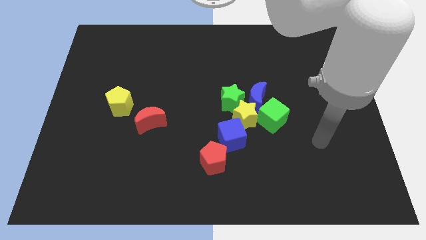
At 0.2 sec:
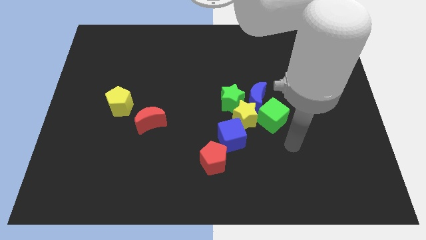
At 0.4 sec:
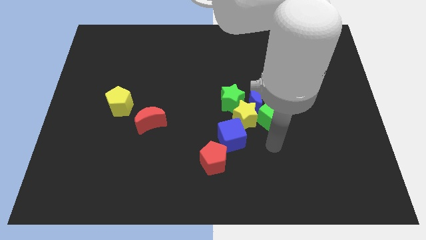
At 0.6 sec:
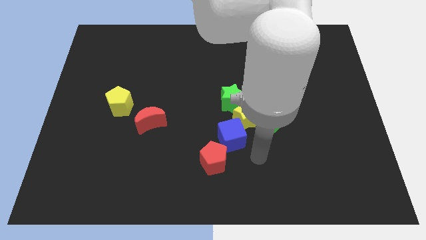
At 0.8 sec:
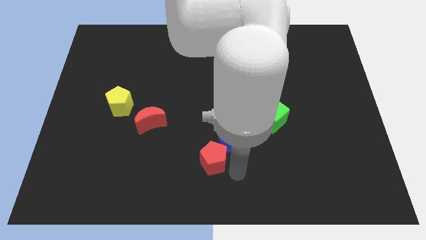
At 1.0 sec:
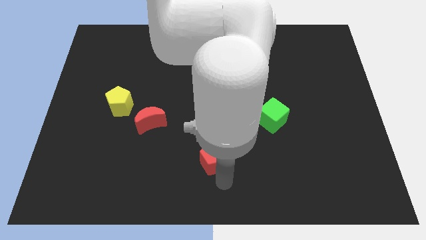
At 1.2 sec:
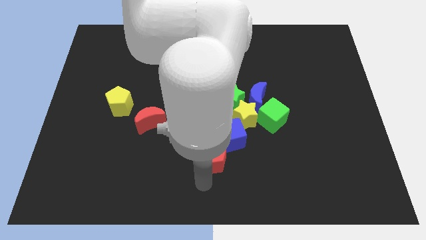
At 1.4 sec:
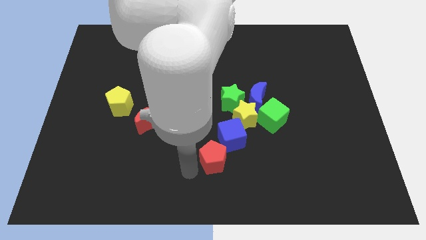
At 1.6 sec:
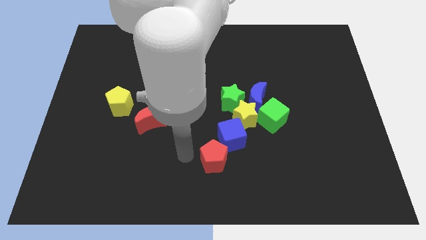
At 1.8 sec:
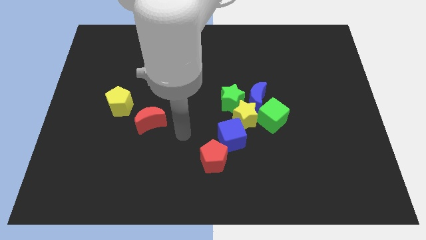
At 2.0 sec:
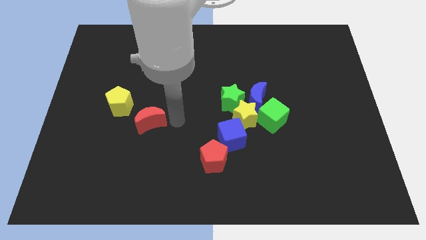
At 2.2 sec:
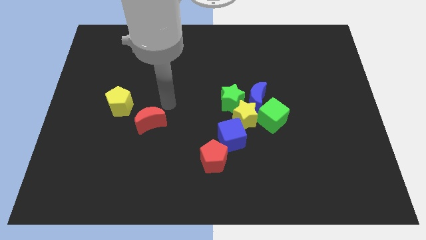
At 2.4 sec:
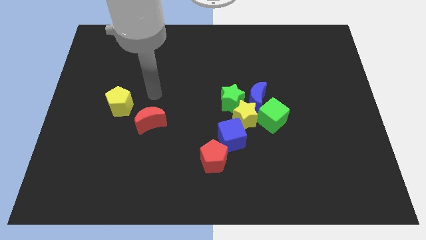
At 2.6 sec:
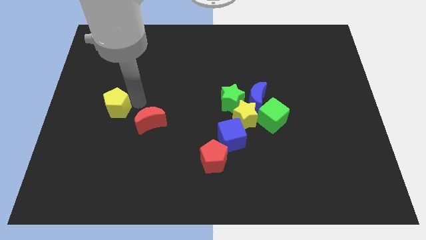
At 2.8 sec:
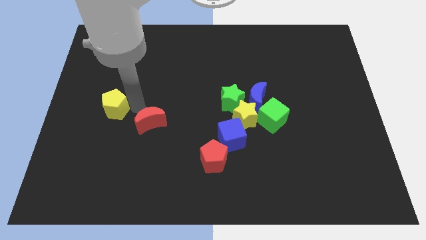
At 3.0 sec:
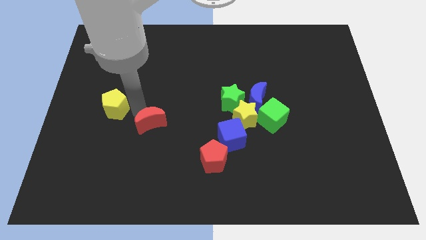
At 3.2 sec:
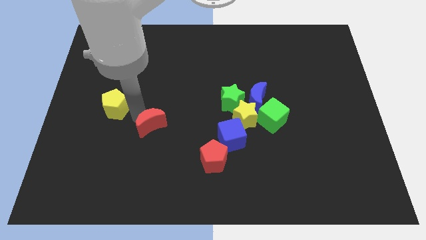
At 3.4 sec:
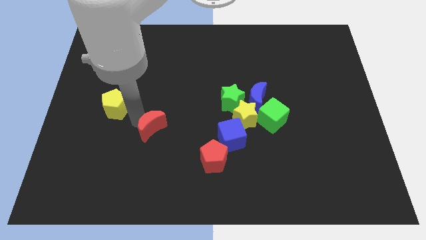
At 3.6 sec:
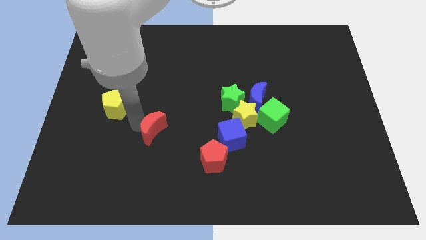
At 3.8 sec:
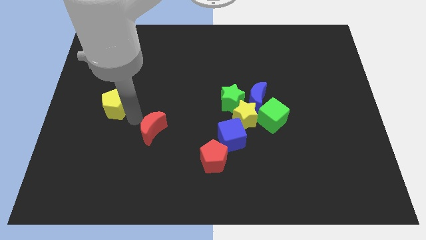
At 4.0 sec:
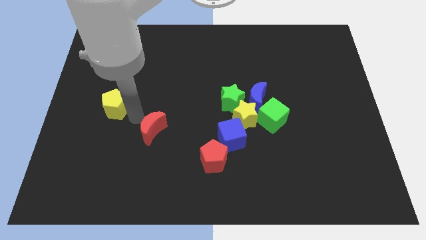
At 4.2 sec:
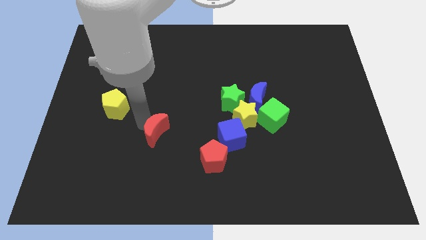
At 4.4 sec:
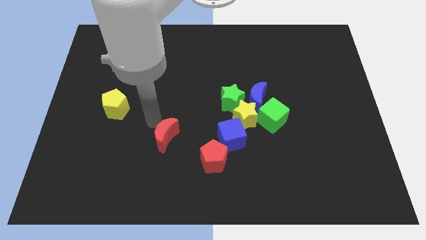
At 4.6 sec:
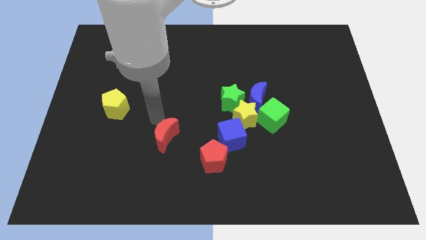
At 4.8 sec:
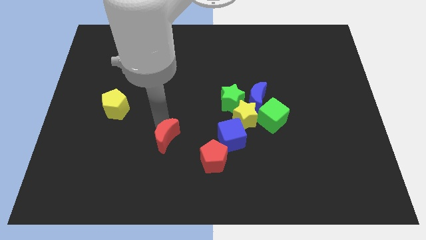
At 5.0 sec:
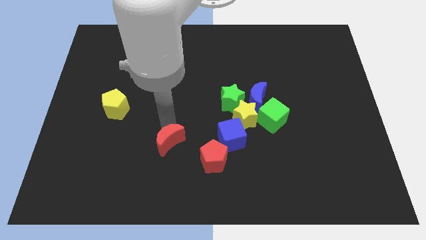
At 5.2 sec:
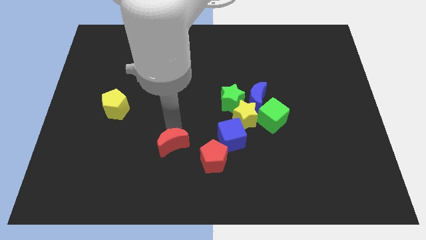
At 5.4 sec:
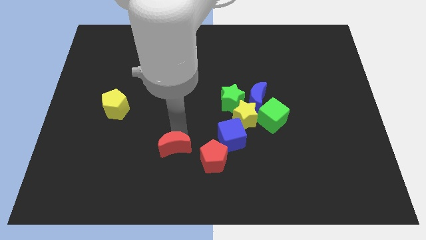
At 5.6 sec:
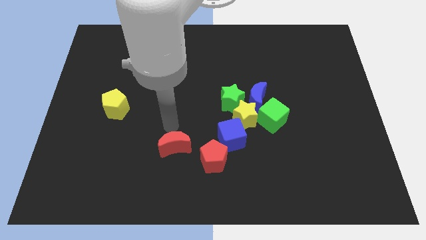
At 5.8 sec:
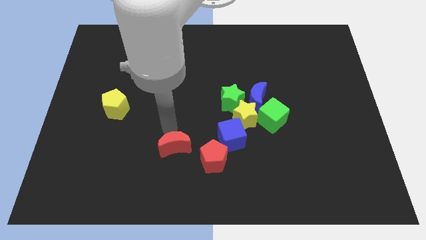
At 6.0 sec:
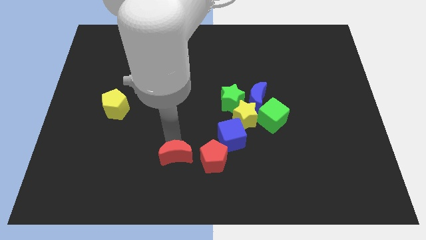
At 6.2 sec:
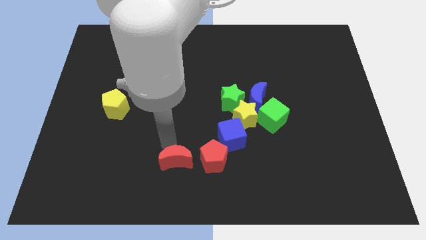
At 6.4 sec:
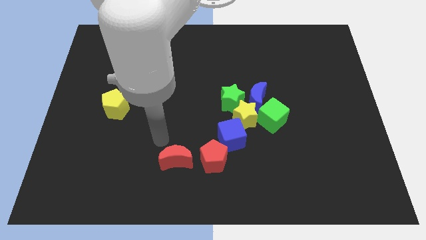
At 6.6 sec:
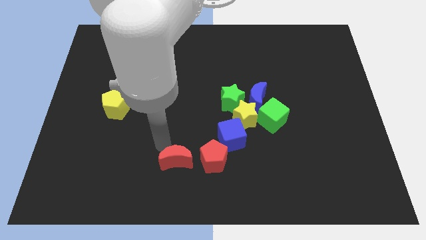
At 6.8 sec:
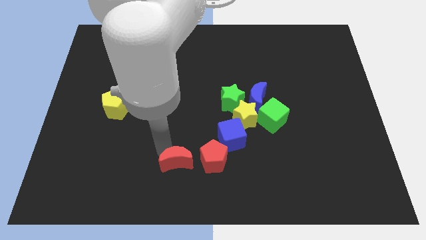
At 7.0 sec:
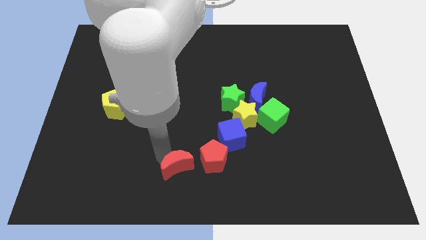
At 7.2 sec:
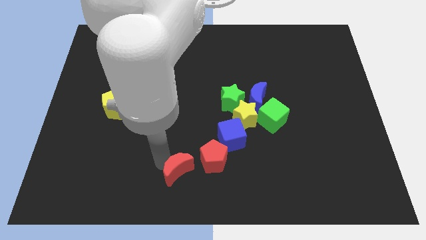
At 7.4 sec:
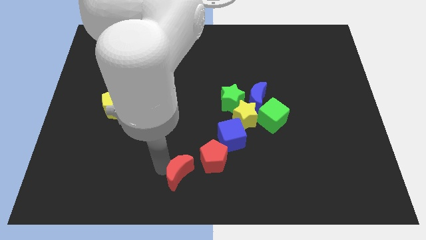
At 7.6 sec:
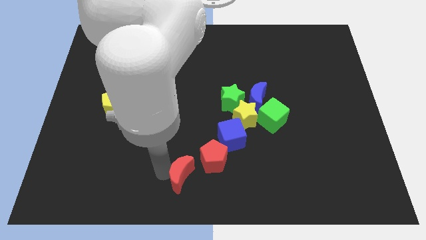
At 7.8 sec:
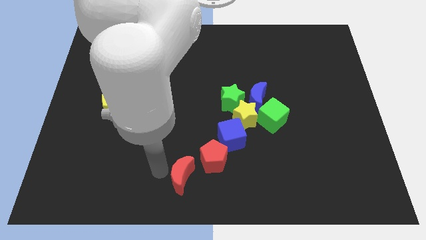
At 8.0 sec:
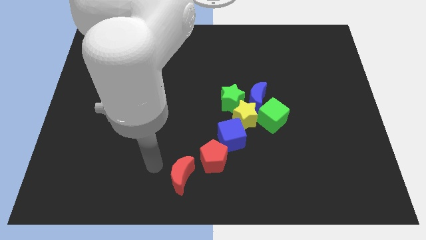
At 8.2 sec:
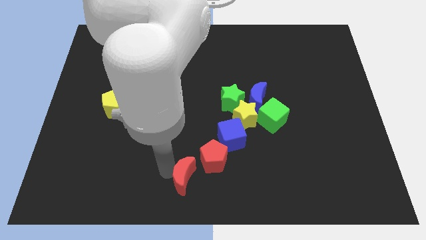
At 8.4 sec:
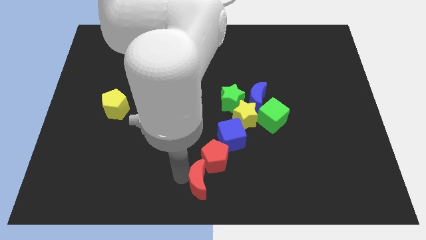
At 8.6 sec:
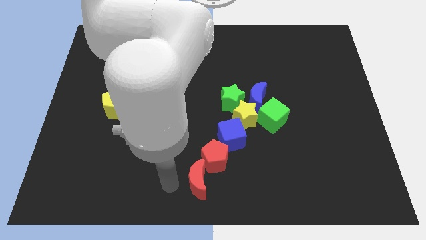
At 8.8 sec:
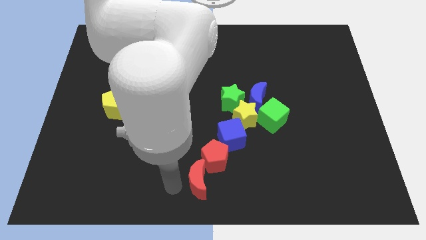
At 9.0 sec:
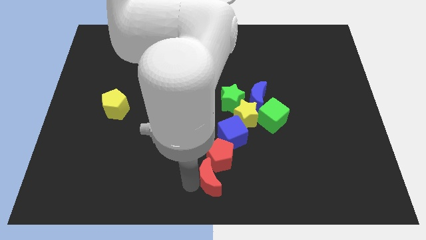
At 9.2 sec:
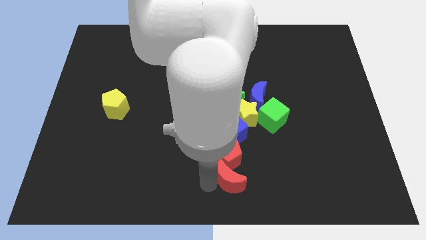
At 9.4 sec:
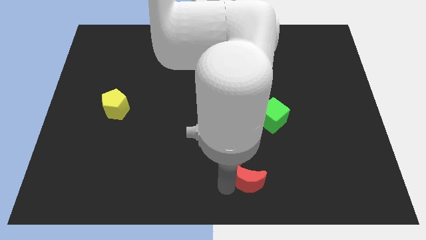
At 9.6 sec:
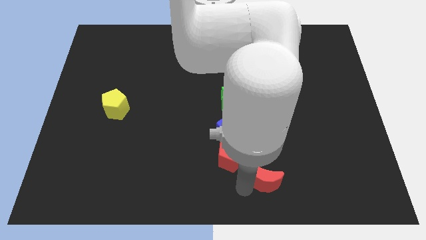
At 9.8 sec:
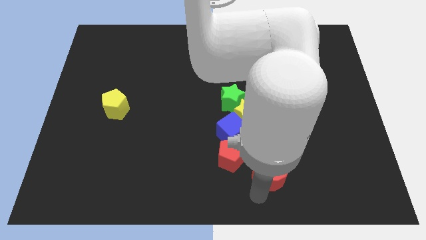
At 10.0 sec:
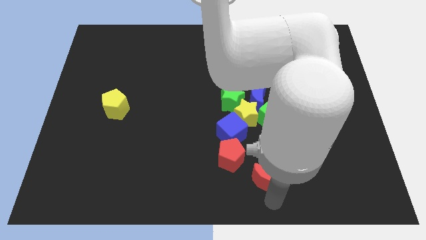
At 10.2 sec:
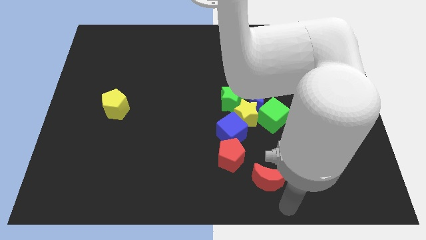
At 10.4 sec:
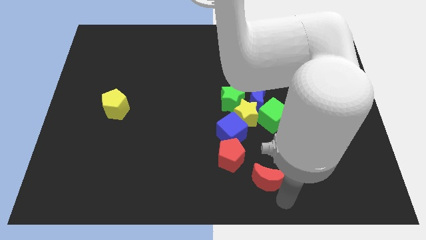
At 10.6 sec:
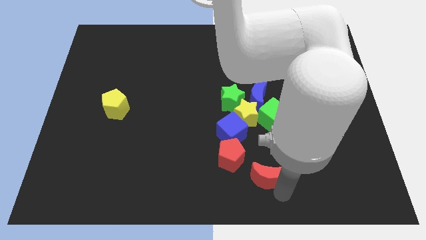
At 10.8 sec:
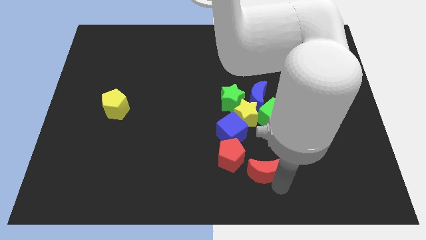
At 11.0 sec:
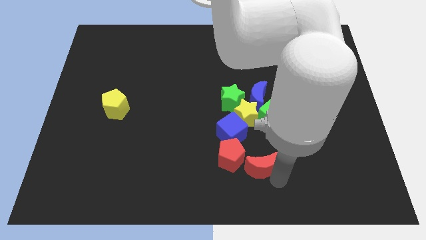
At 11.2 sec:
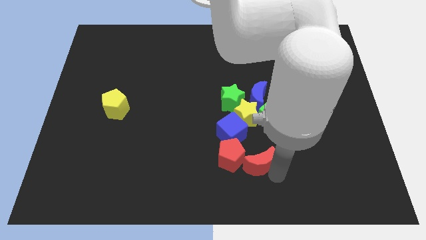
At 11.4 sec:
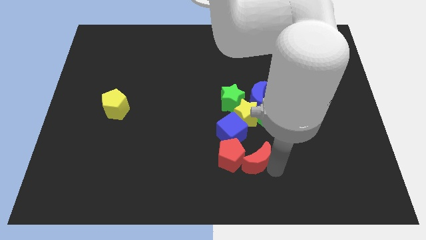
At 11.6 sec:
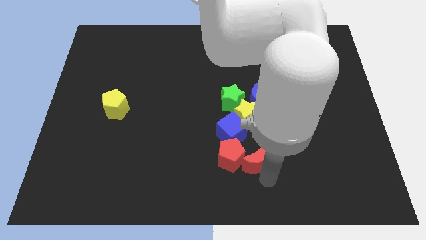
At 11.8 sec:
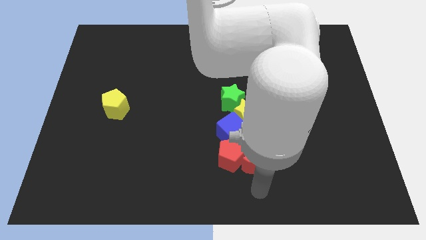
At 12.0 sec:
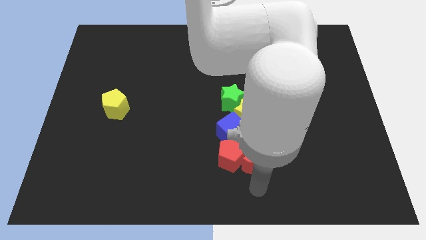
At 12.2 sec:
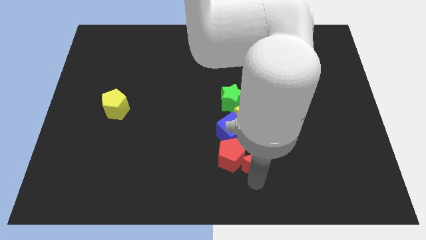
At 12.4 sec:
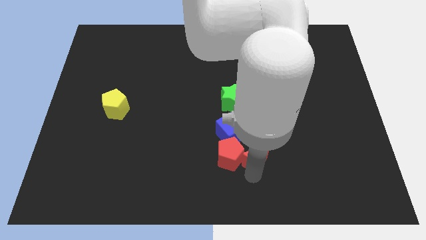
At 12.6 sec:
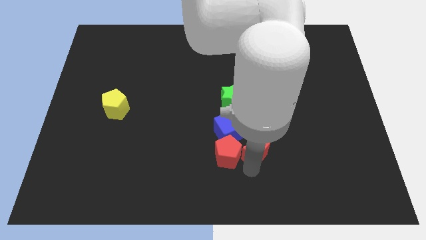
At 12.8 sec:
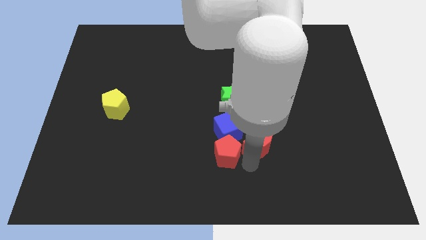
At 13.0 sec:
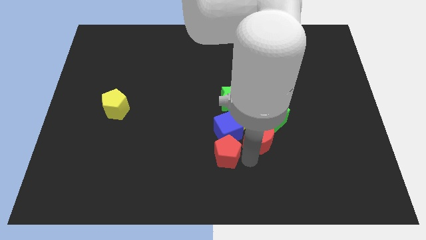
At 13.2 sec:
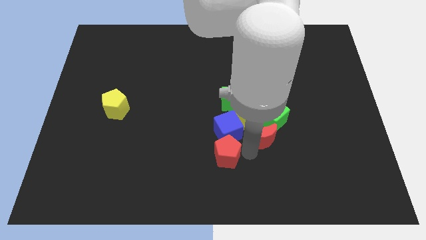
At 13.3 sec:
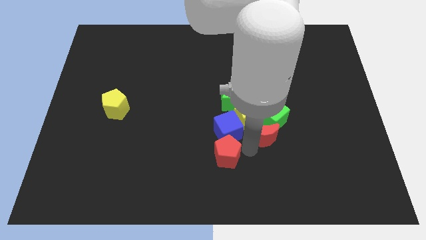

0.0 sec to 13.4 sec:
push the red moon towards the green cube
